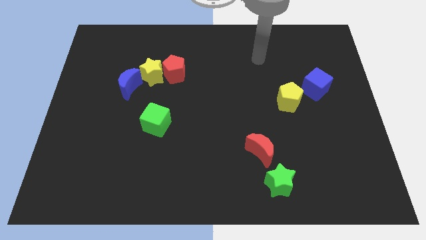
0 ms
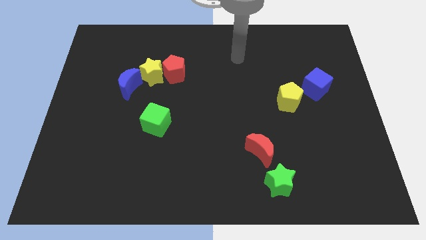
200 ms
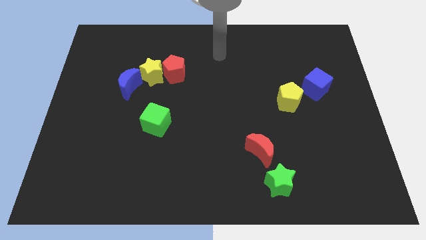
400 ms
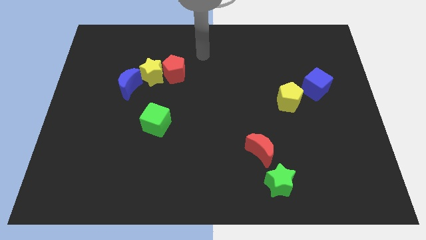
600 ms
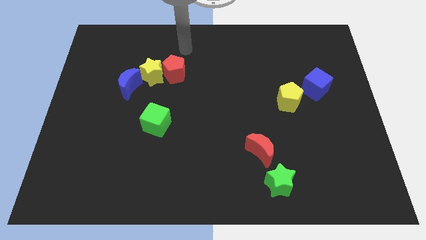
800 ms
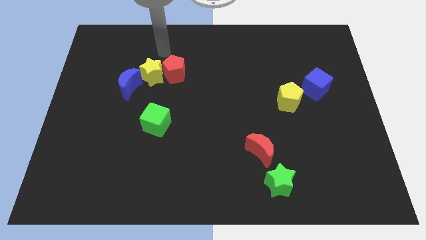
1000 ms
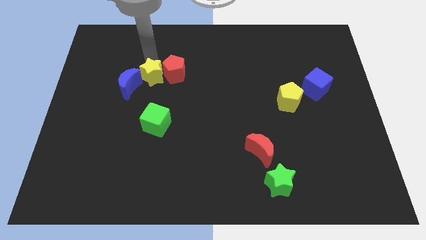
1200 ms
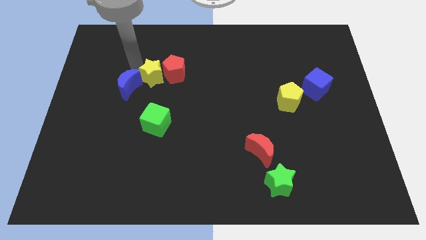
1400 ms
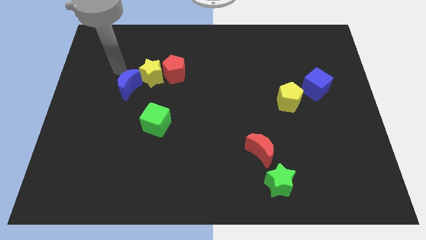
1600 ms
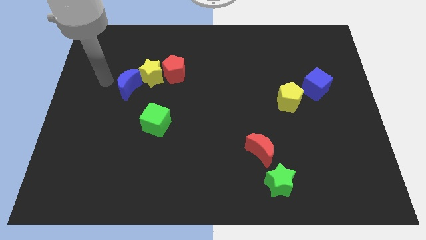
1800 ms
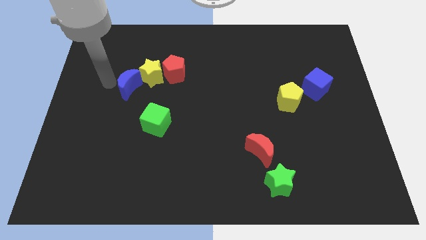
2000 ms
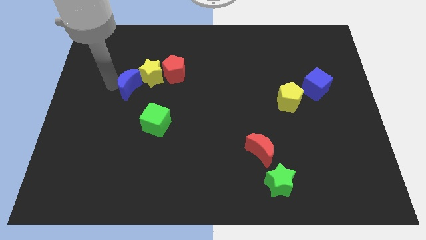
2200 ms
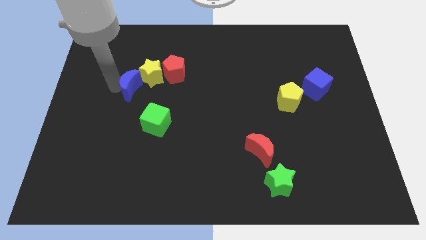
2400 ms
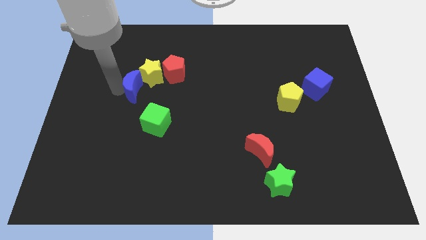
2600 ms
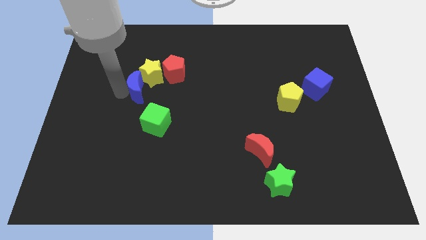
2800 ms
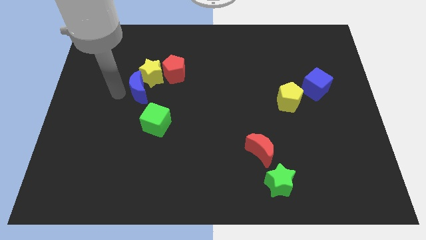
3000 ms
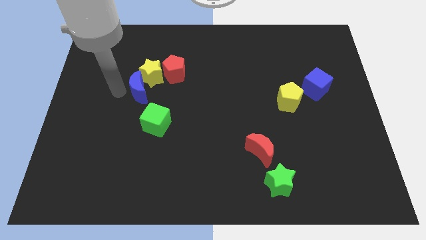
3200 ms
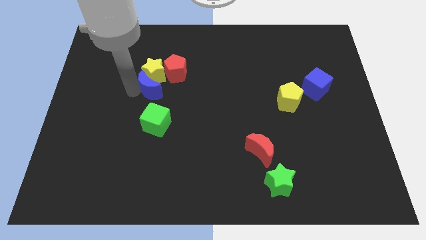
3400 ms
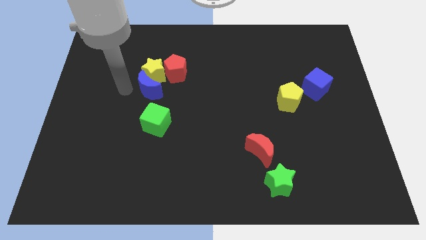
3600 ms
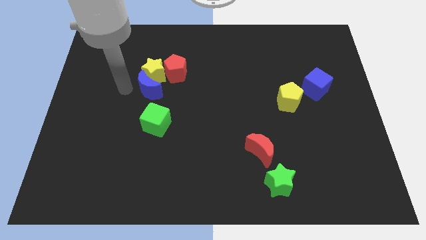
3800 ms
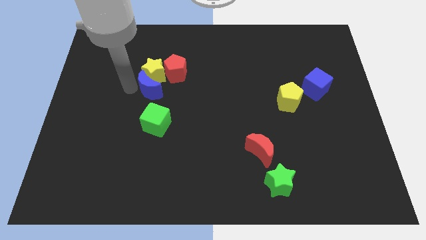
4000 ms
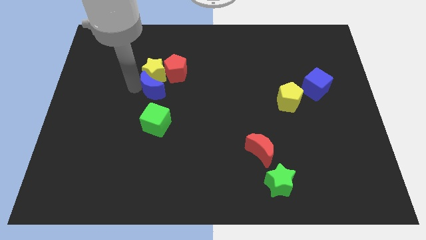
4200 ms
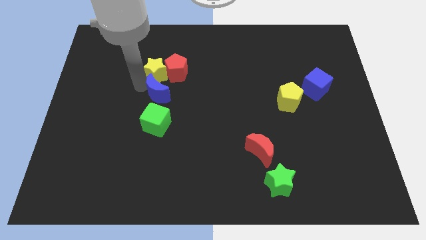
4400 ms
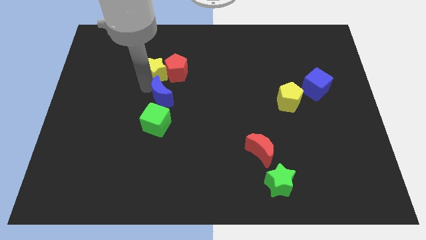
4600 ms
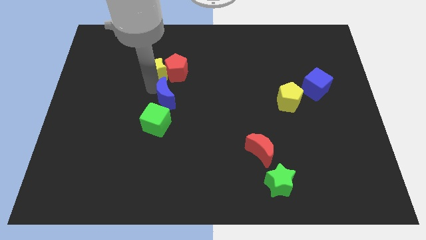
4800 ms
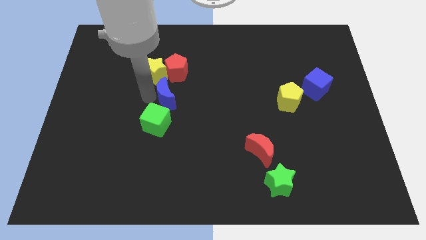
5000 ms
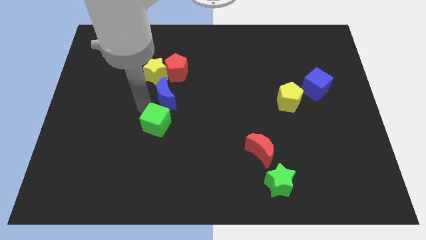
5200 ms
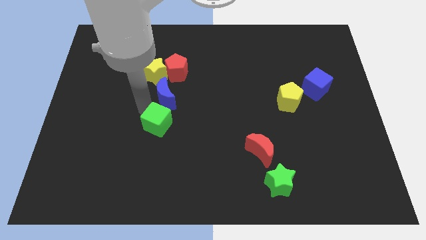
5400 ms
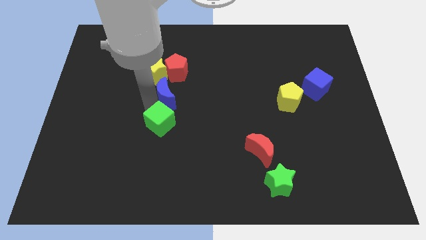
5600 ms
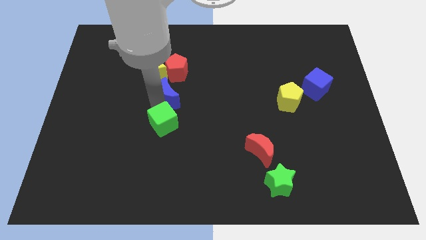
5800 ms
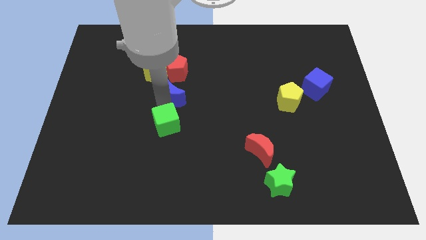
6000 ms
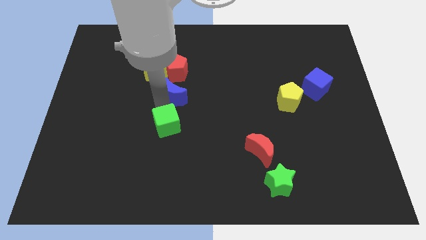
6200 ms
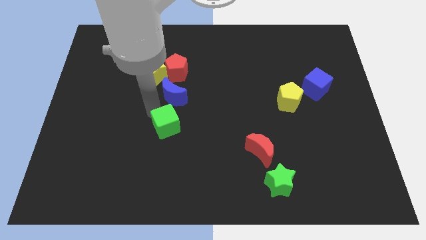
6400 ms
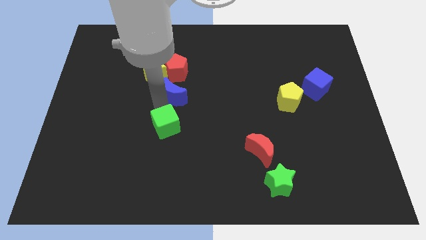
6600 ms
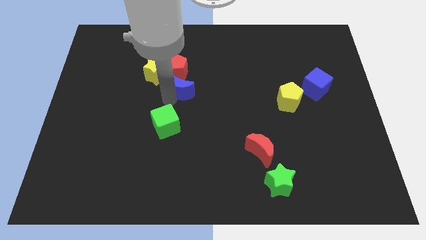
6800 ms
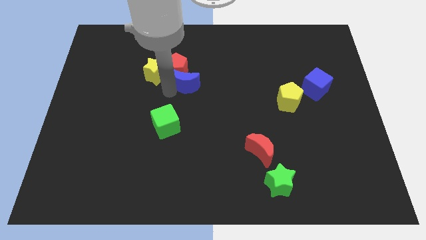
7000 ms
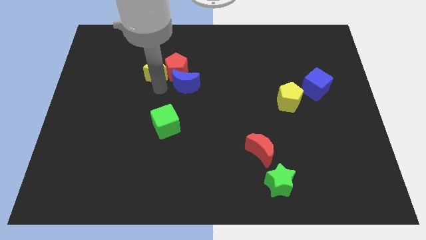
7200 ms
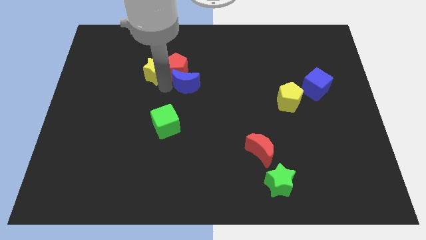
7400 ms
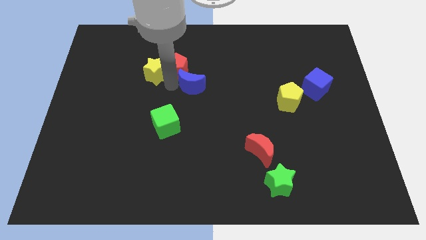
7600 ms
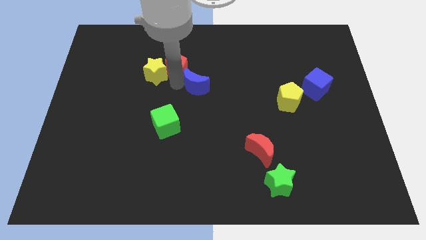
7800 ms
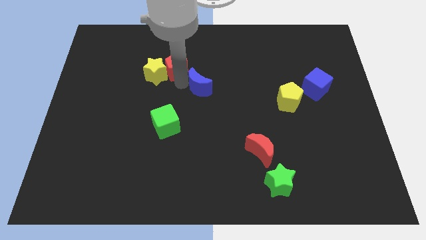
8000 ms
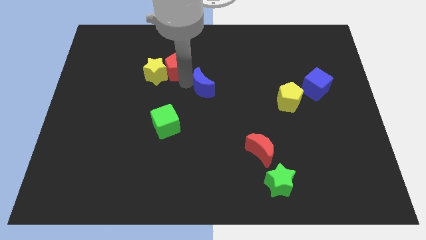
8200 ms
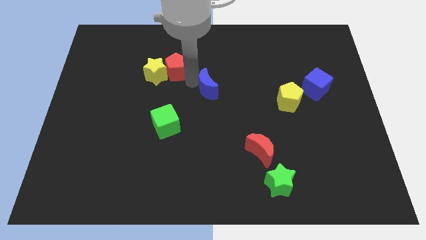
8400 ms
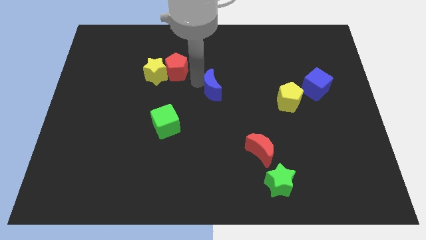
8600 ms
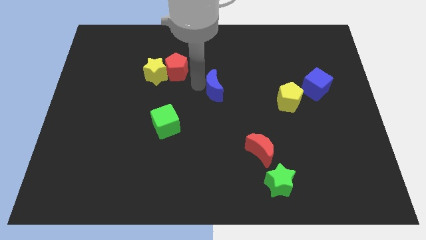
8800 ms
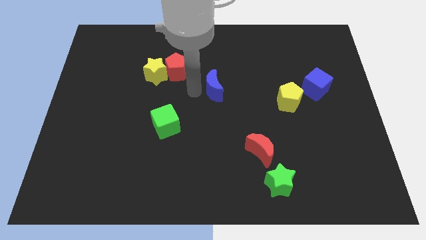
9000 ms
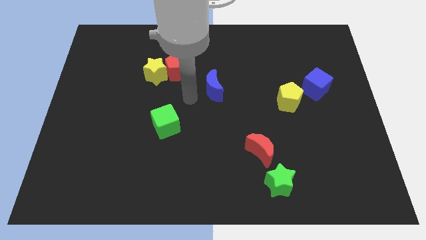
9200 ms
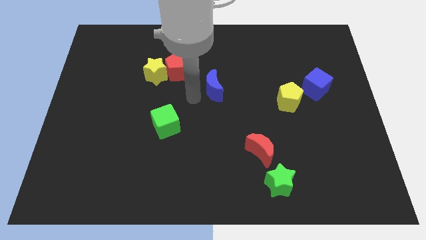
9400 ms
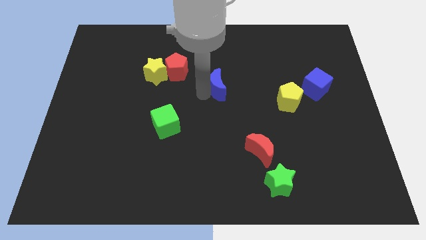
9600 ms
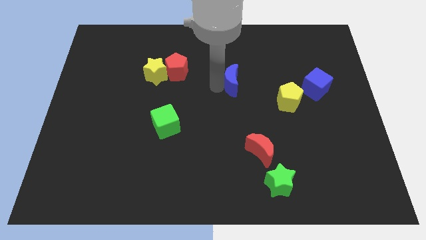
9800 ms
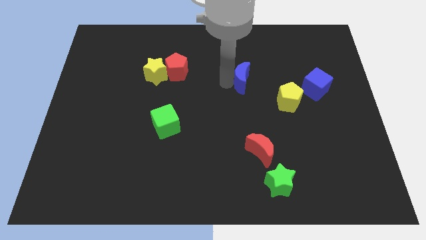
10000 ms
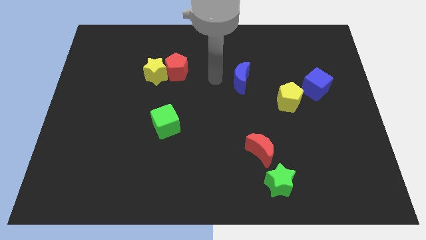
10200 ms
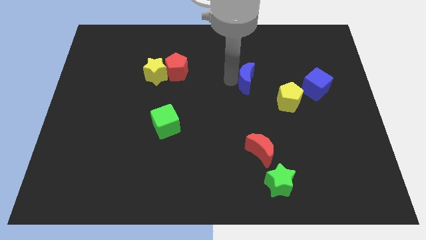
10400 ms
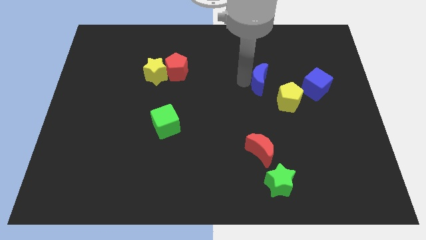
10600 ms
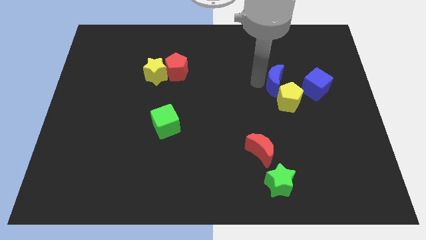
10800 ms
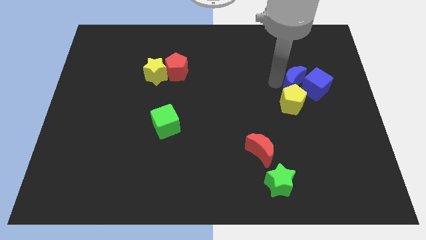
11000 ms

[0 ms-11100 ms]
put the blue moon close to the blue cube

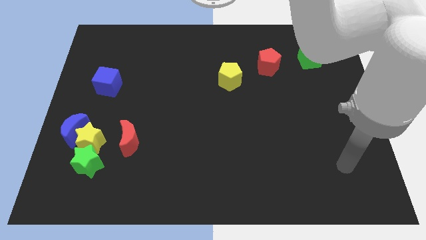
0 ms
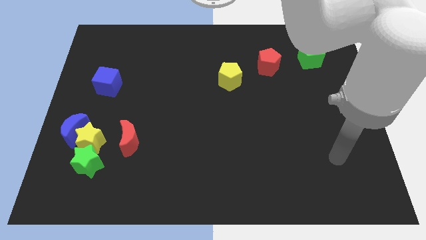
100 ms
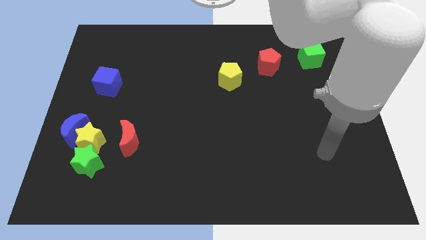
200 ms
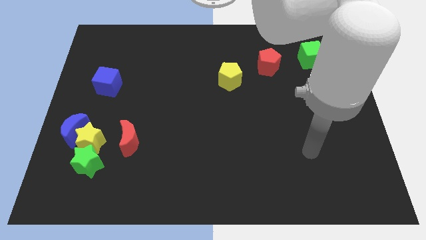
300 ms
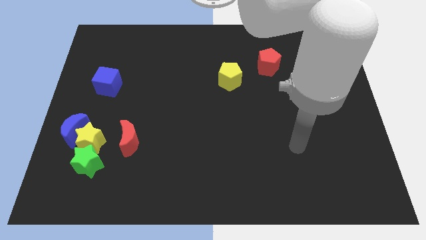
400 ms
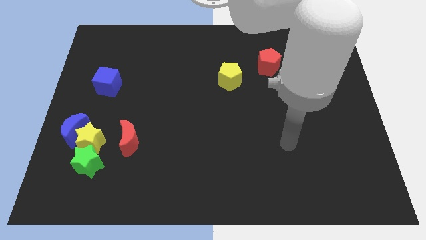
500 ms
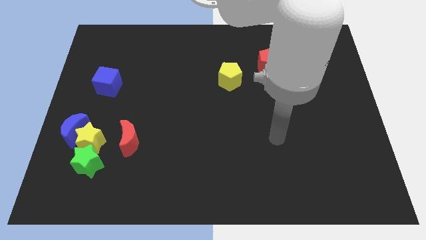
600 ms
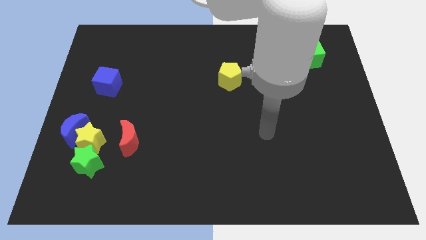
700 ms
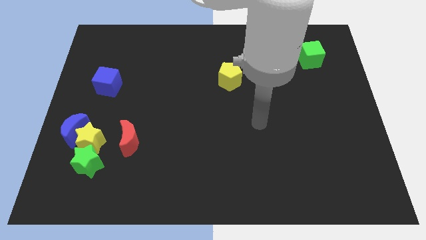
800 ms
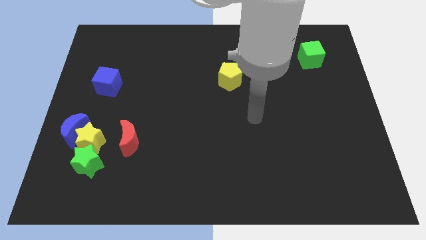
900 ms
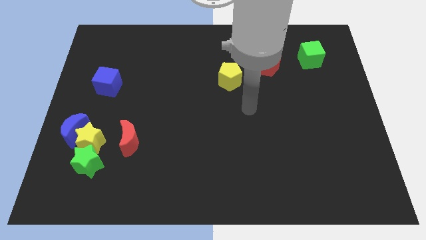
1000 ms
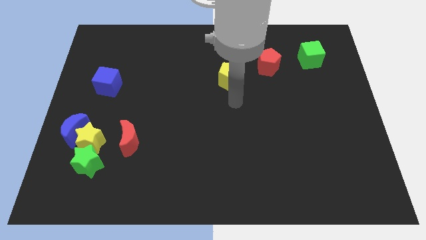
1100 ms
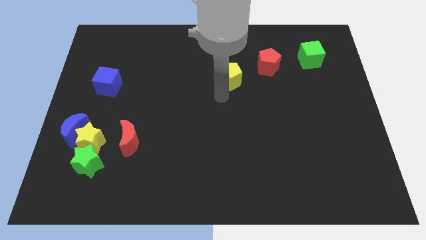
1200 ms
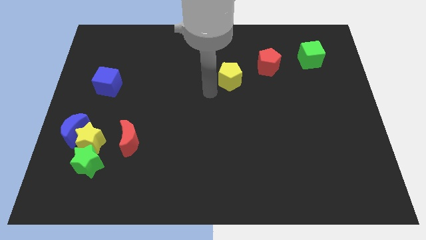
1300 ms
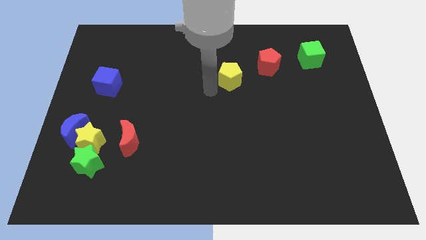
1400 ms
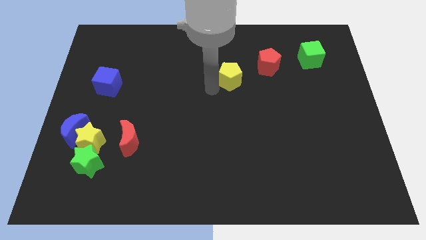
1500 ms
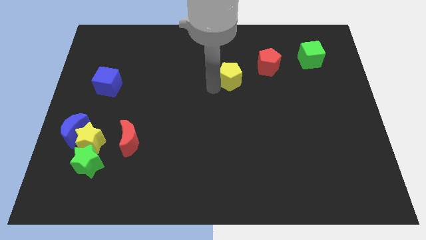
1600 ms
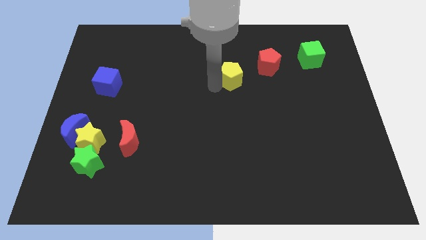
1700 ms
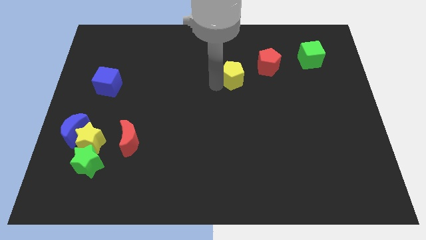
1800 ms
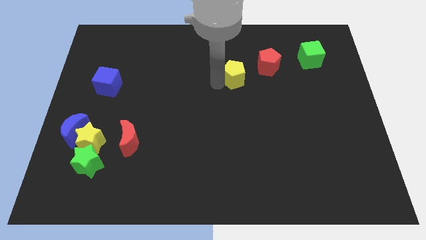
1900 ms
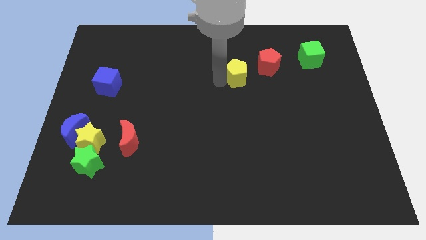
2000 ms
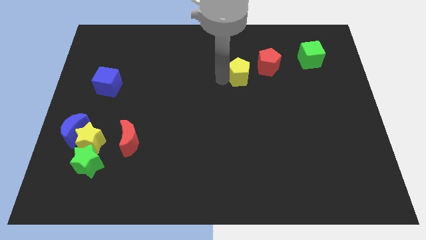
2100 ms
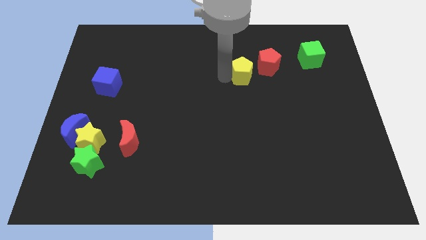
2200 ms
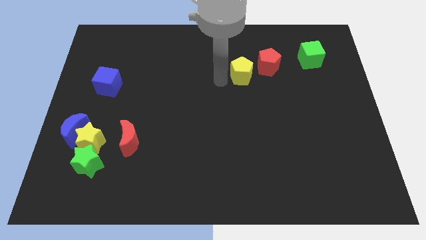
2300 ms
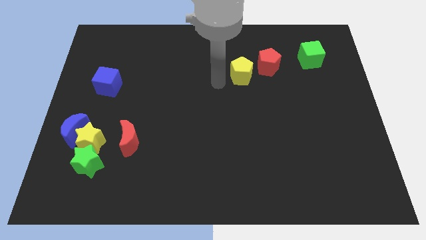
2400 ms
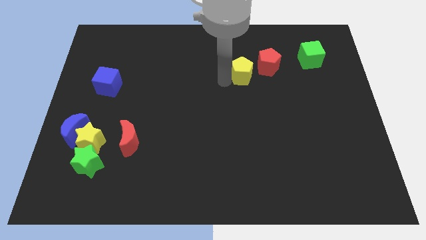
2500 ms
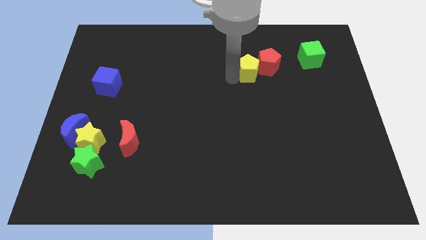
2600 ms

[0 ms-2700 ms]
push the yellow pentagon close to the red pentagon
